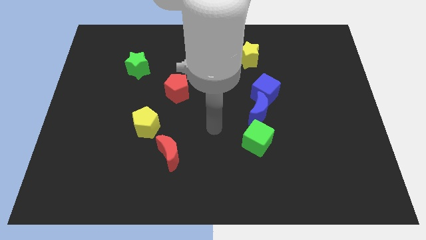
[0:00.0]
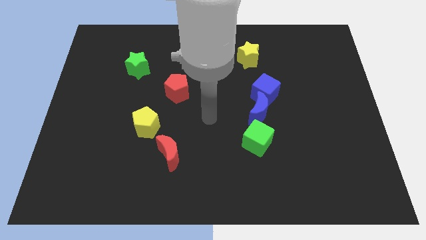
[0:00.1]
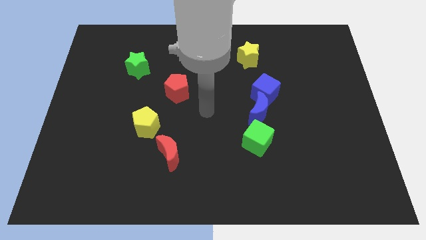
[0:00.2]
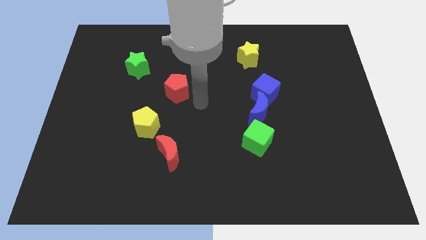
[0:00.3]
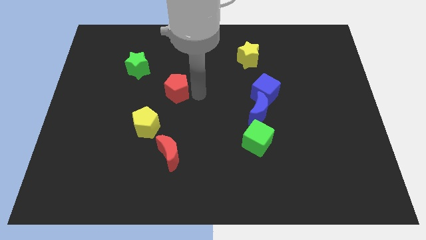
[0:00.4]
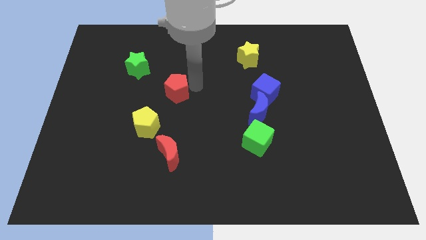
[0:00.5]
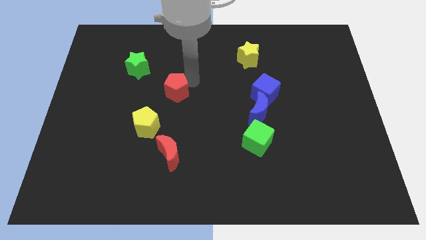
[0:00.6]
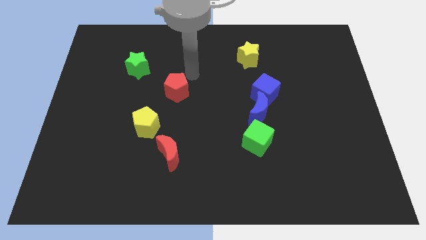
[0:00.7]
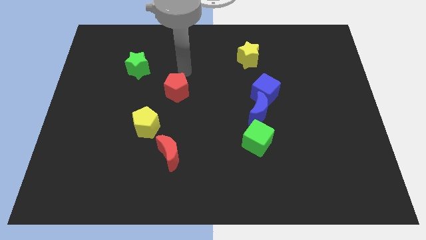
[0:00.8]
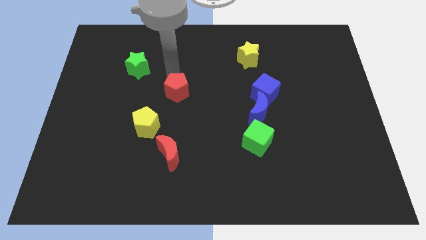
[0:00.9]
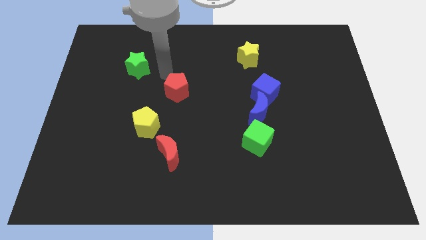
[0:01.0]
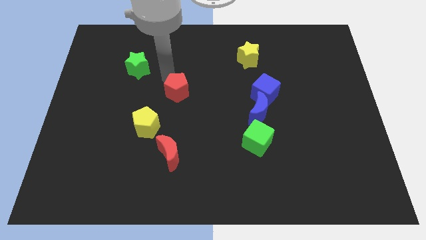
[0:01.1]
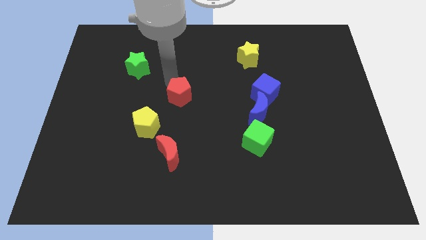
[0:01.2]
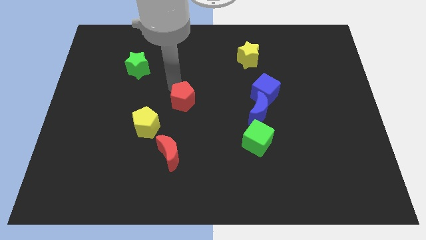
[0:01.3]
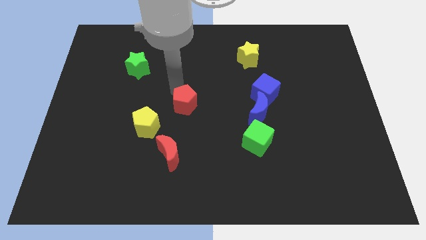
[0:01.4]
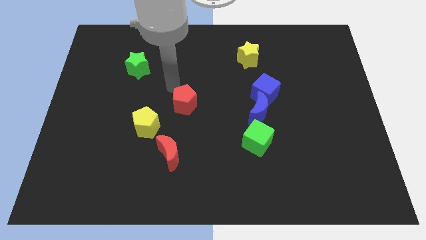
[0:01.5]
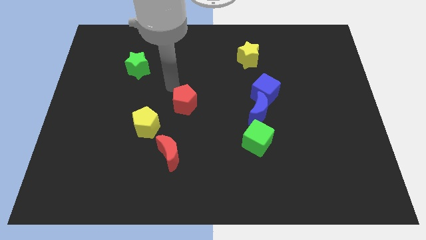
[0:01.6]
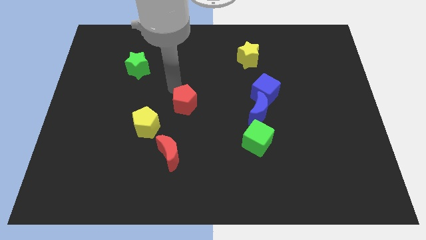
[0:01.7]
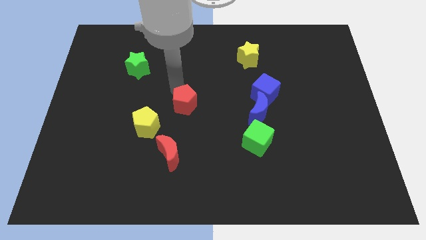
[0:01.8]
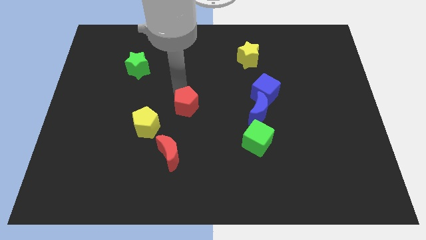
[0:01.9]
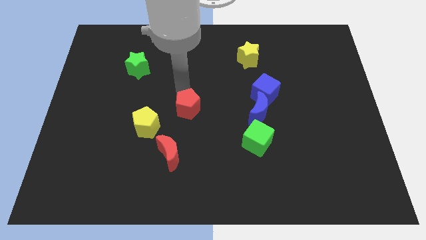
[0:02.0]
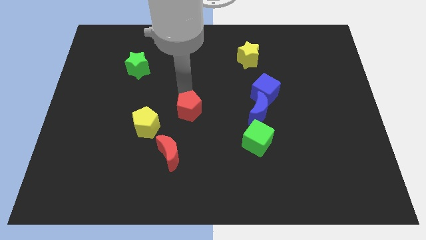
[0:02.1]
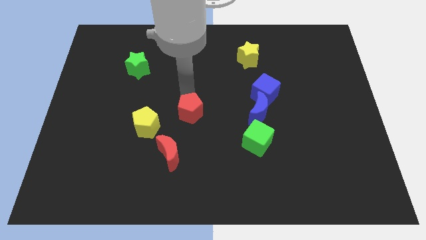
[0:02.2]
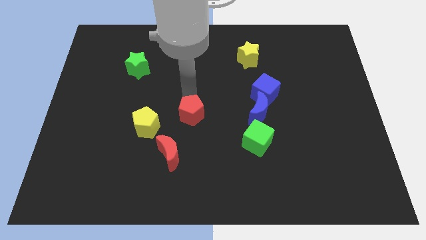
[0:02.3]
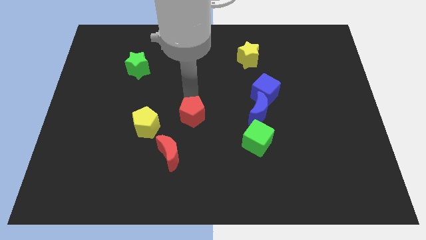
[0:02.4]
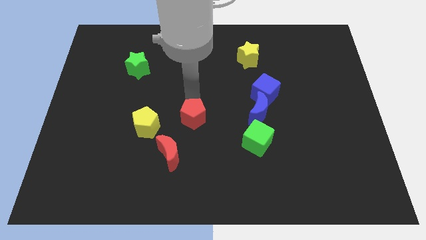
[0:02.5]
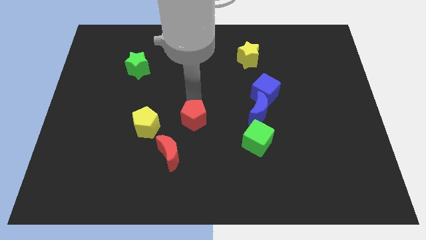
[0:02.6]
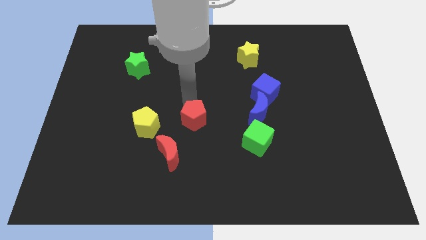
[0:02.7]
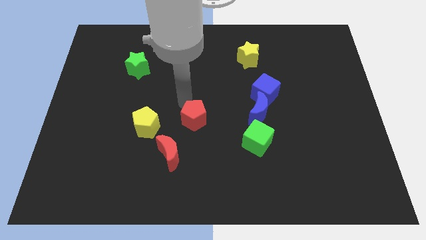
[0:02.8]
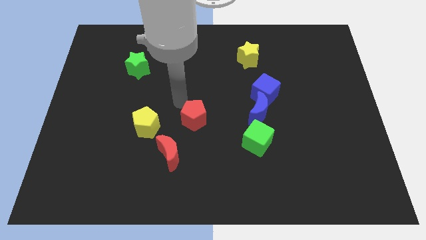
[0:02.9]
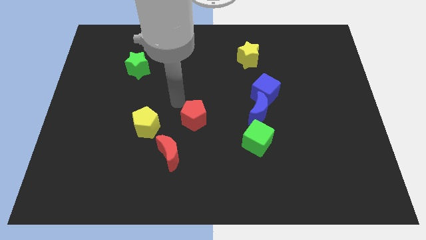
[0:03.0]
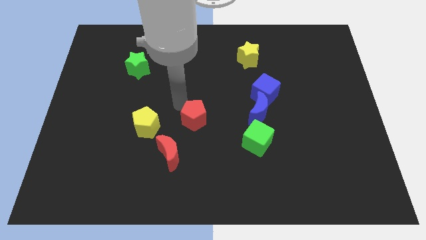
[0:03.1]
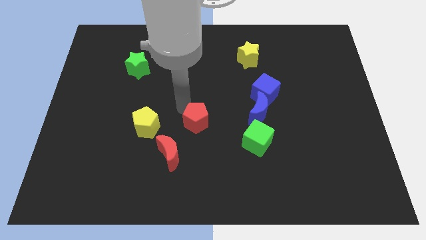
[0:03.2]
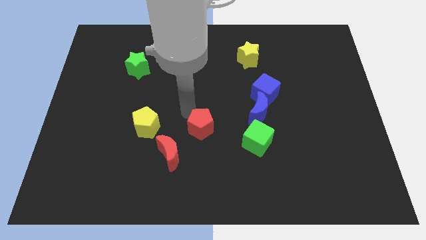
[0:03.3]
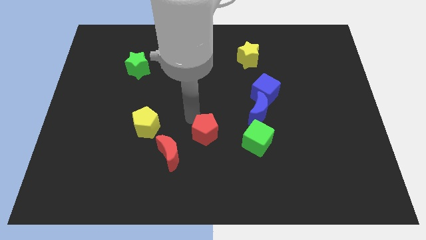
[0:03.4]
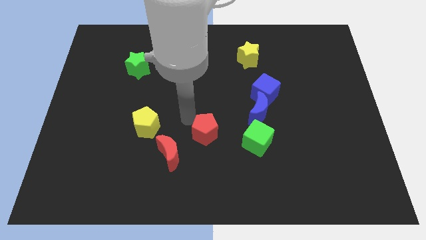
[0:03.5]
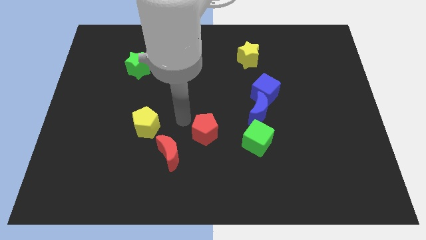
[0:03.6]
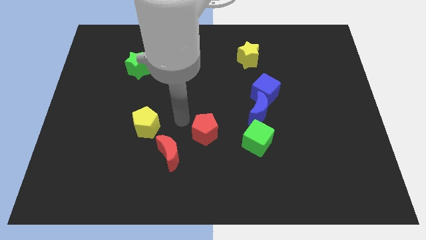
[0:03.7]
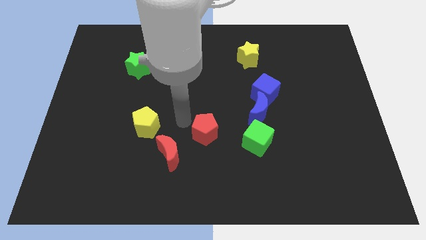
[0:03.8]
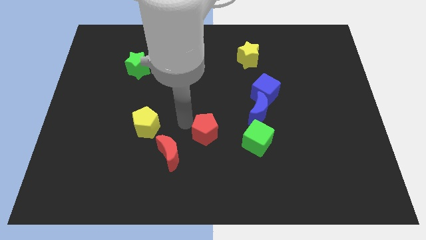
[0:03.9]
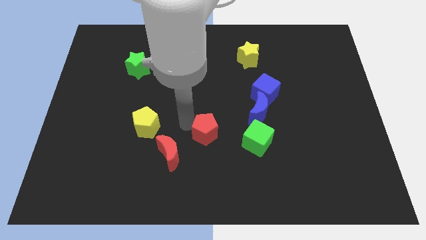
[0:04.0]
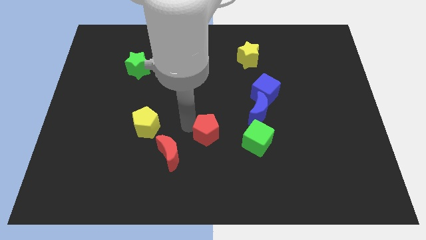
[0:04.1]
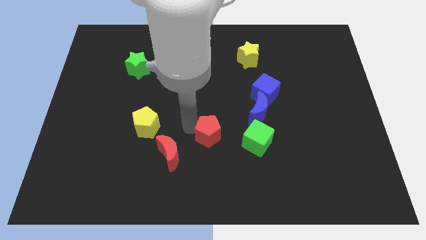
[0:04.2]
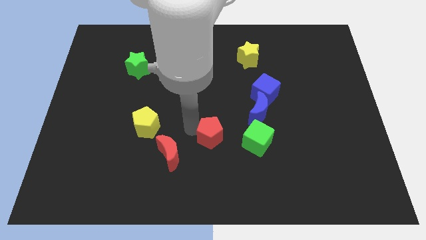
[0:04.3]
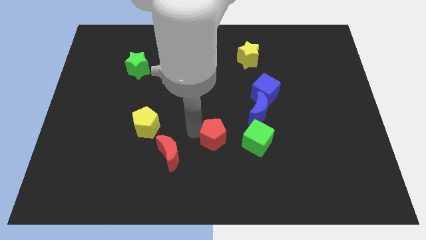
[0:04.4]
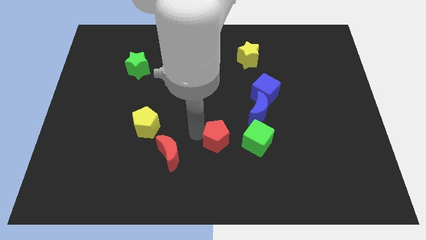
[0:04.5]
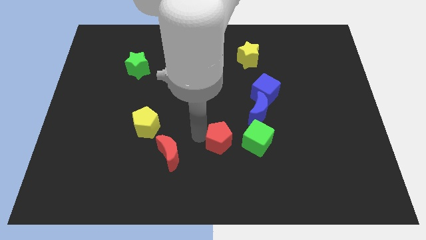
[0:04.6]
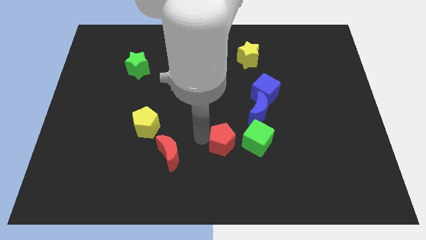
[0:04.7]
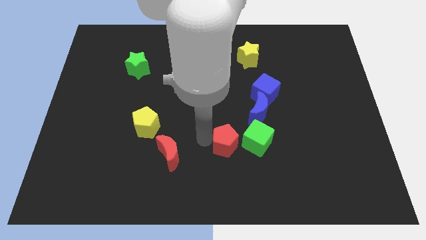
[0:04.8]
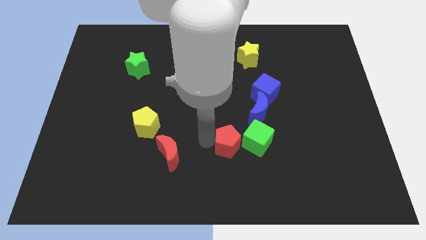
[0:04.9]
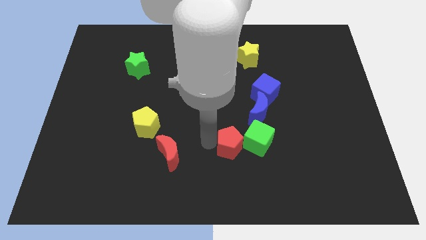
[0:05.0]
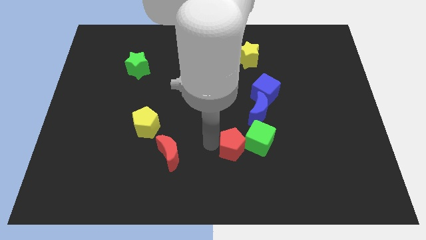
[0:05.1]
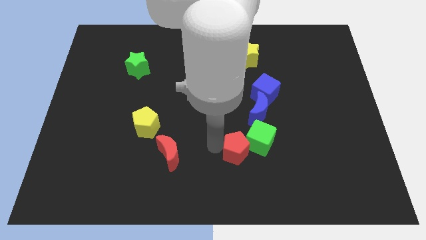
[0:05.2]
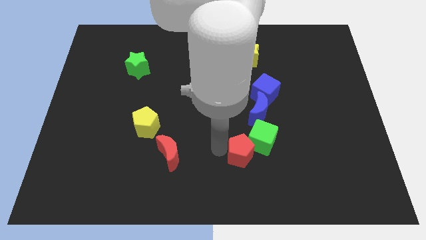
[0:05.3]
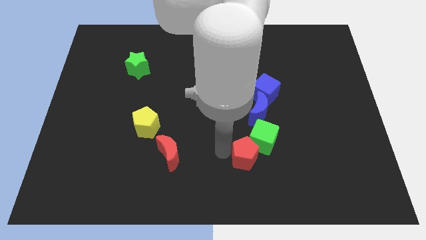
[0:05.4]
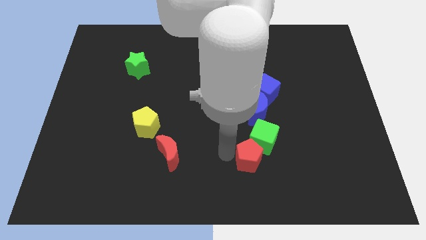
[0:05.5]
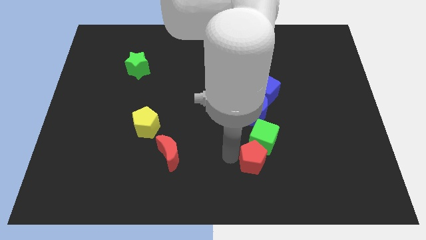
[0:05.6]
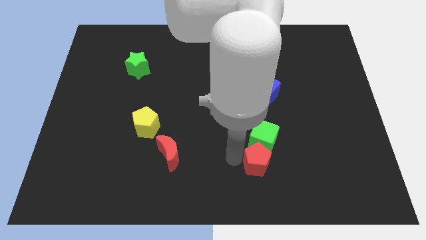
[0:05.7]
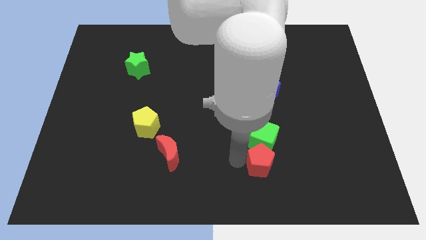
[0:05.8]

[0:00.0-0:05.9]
push the red pentagon to the bottom right side of the green cube
